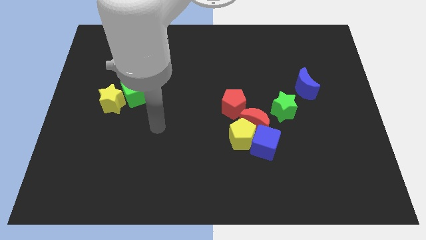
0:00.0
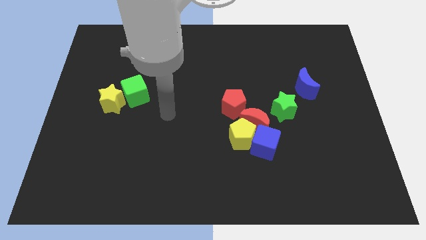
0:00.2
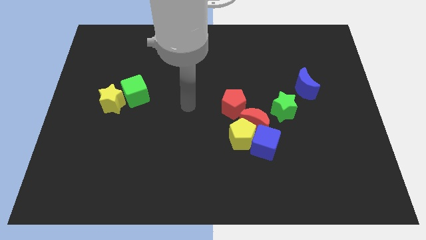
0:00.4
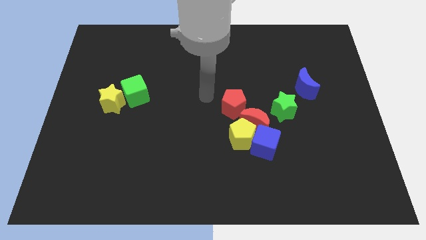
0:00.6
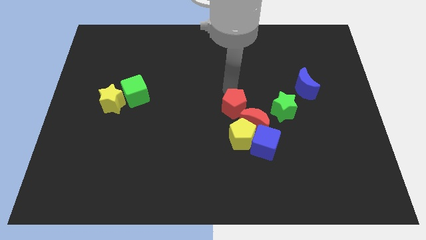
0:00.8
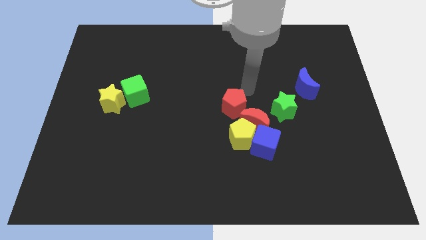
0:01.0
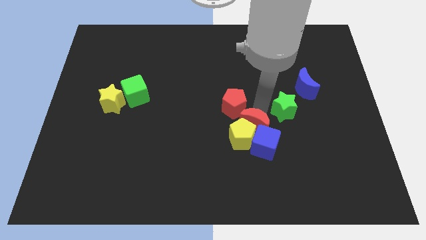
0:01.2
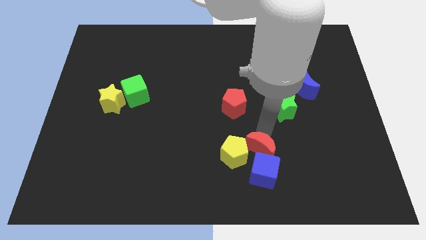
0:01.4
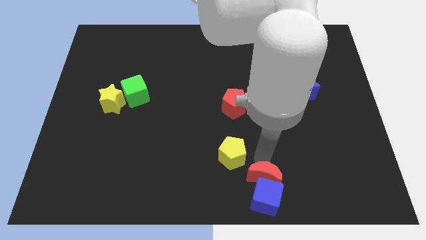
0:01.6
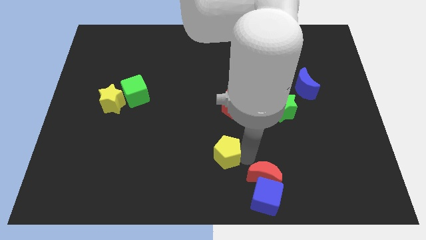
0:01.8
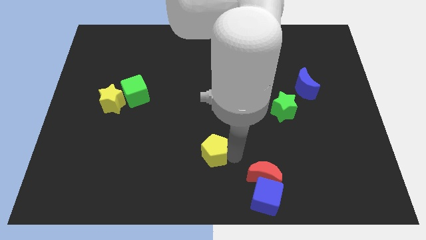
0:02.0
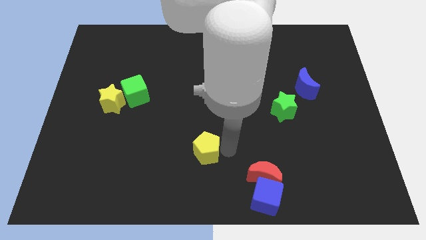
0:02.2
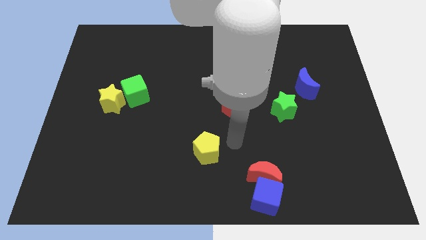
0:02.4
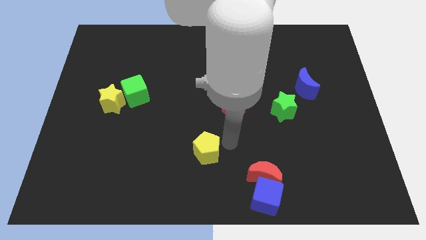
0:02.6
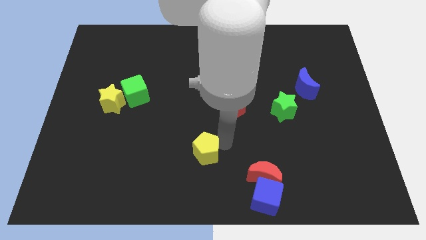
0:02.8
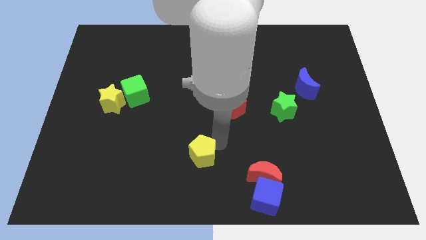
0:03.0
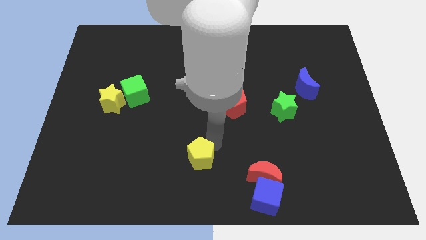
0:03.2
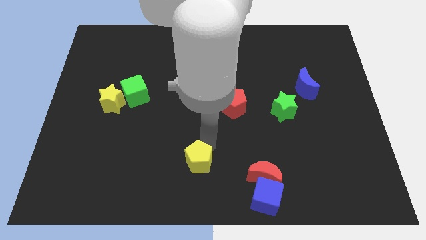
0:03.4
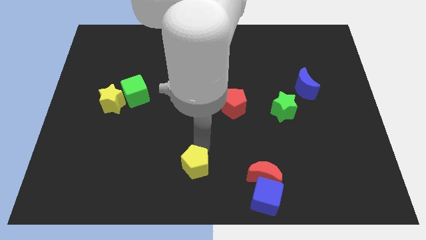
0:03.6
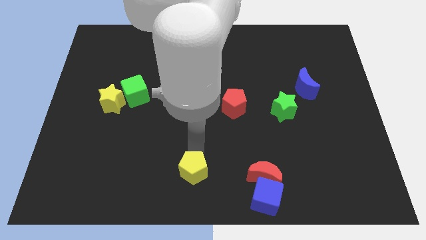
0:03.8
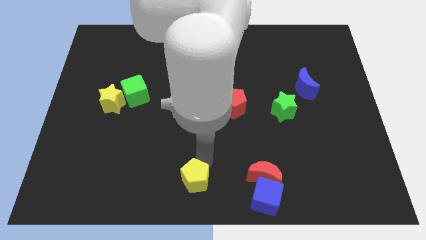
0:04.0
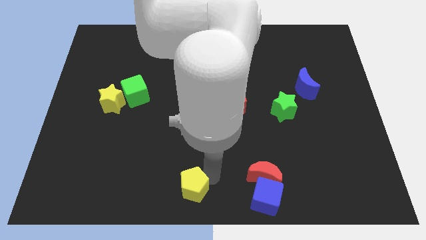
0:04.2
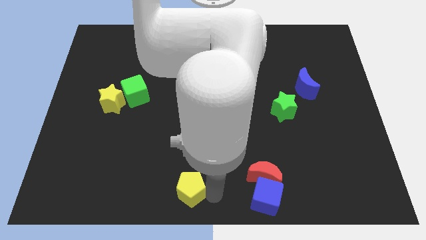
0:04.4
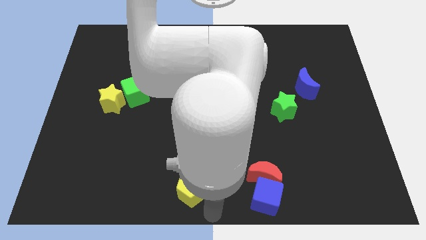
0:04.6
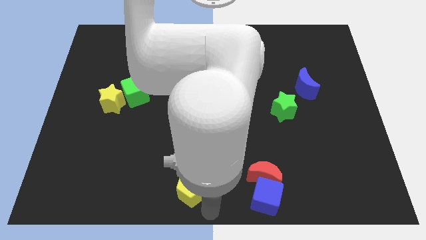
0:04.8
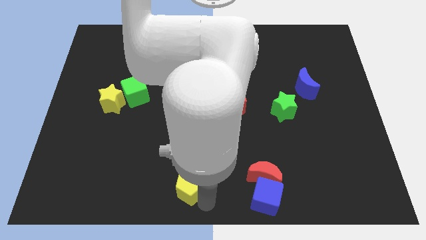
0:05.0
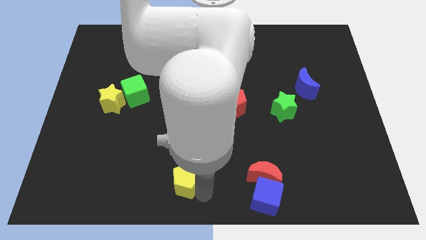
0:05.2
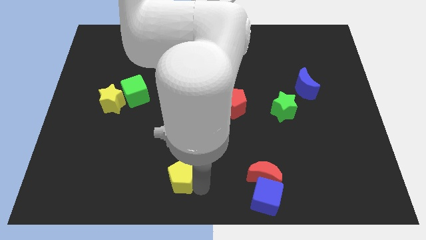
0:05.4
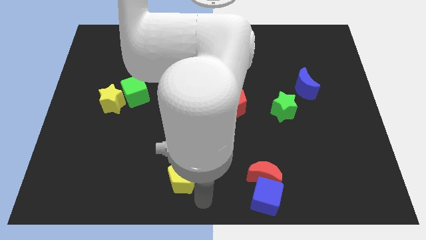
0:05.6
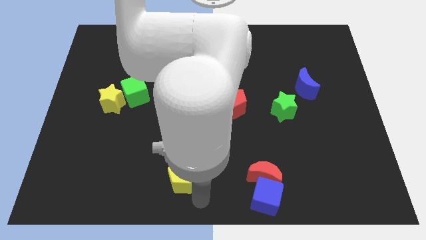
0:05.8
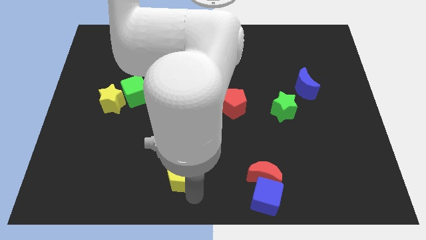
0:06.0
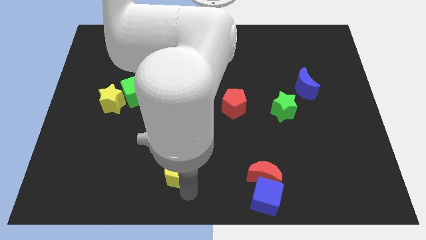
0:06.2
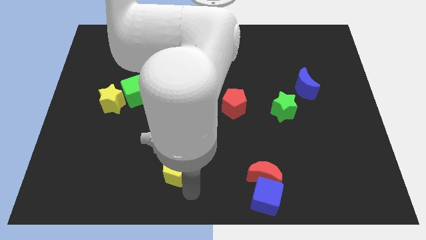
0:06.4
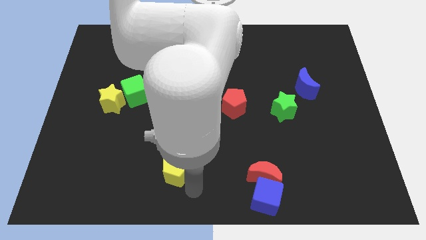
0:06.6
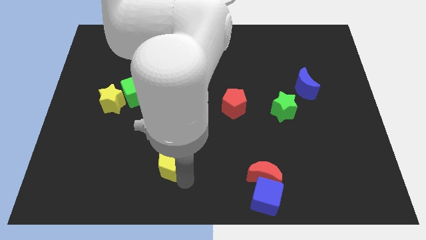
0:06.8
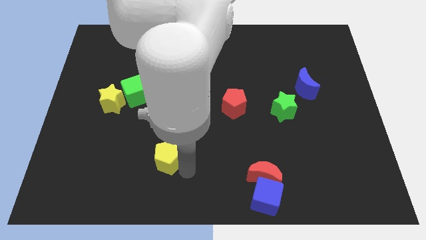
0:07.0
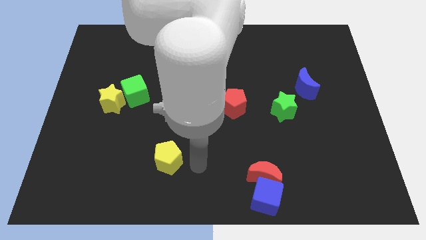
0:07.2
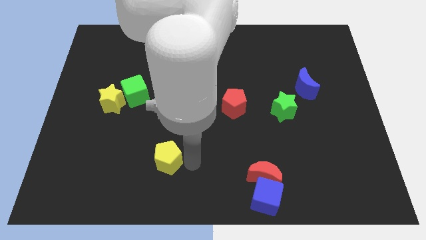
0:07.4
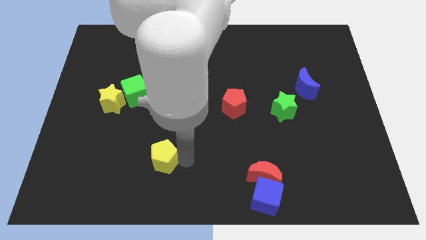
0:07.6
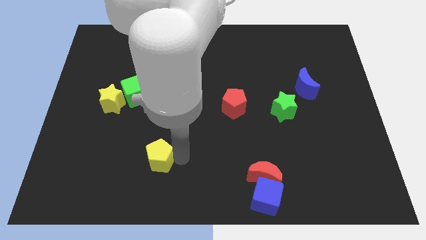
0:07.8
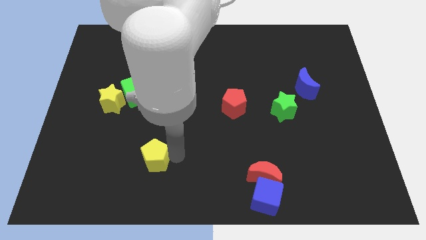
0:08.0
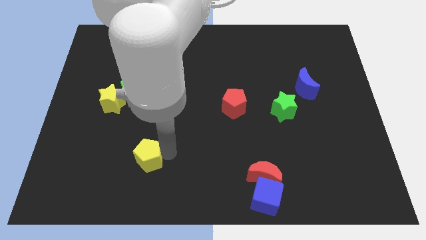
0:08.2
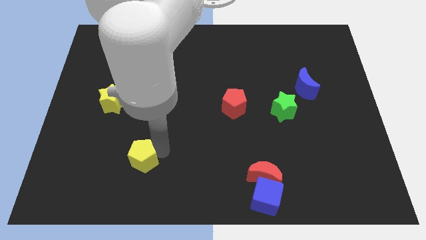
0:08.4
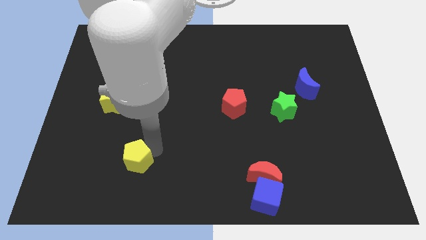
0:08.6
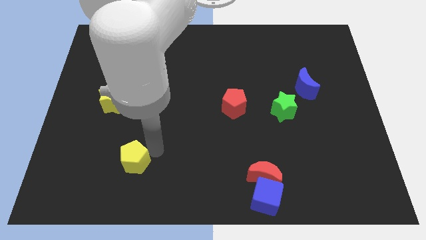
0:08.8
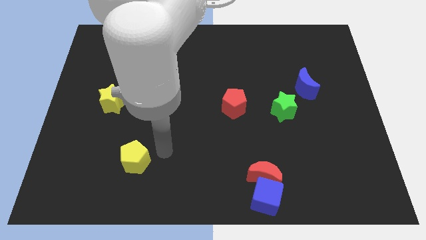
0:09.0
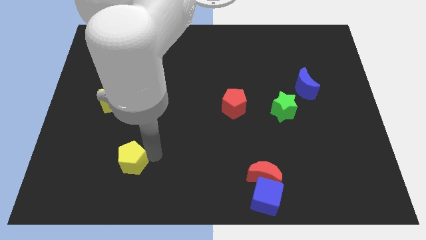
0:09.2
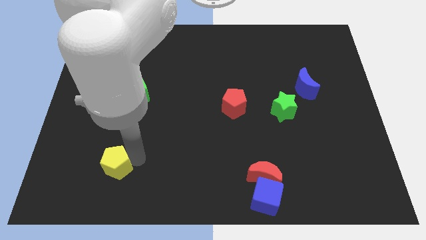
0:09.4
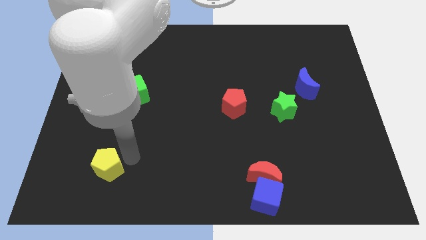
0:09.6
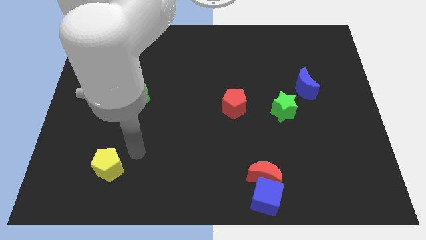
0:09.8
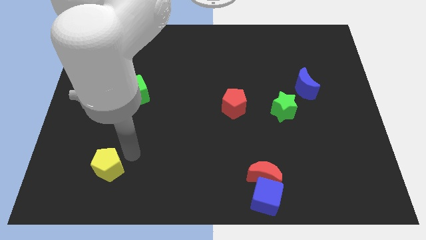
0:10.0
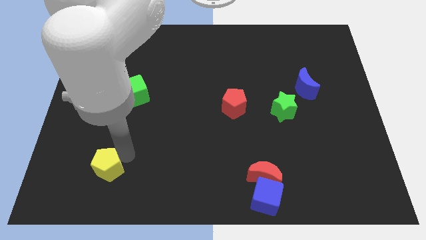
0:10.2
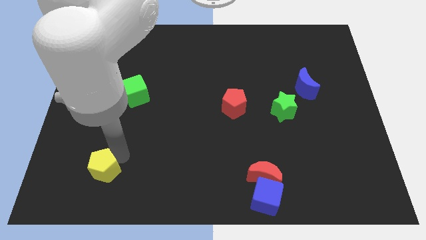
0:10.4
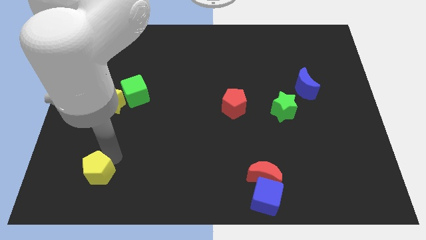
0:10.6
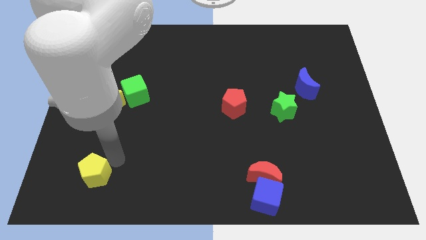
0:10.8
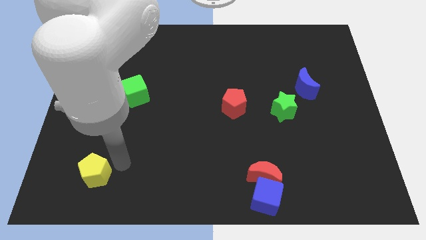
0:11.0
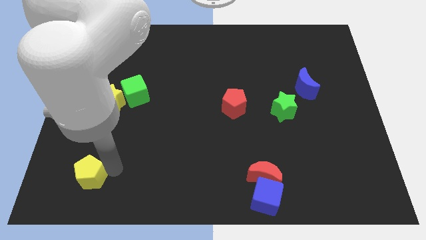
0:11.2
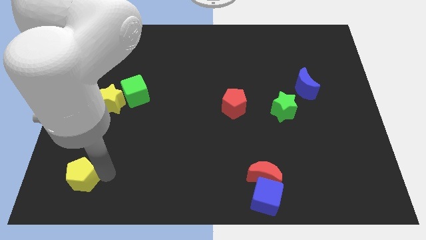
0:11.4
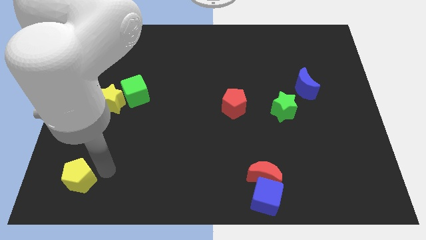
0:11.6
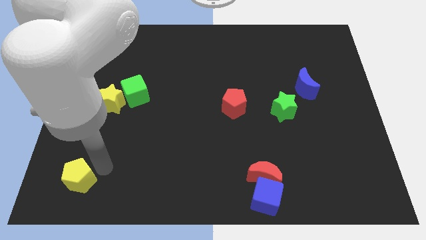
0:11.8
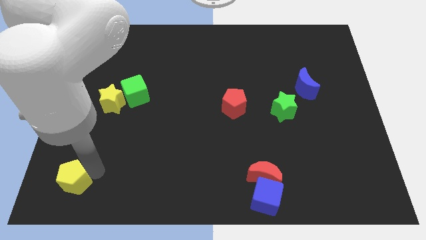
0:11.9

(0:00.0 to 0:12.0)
push the yellow pentagon to the bottom left
